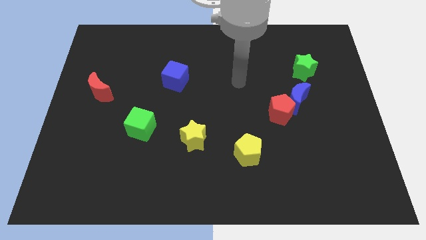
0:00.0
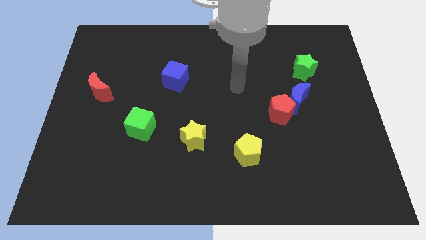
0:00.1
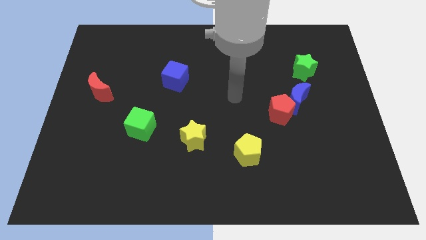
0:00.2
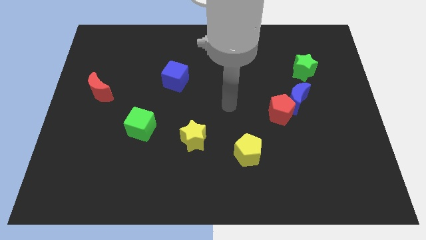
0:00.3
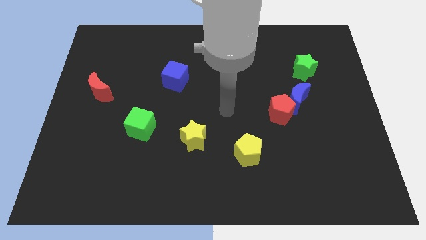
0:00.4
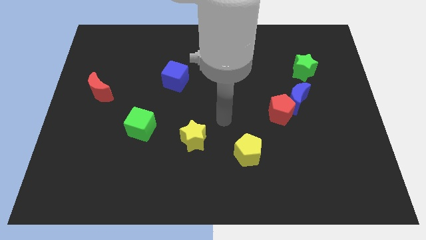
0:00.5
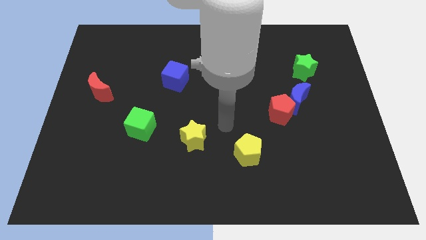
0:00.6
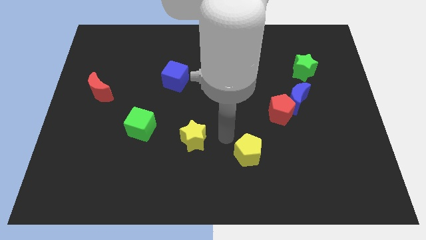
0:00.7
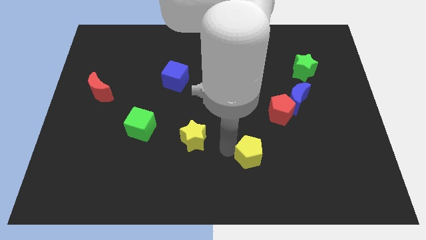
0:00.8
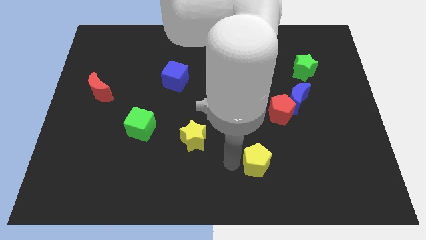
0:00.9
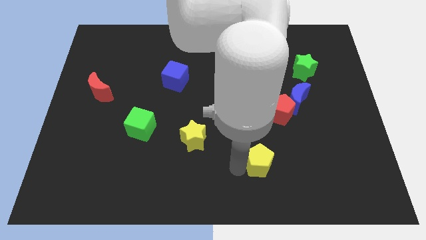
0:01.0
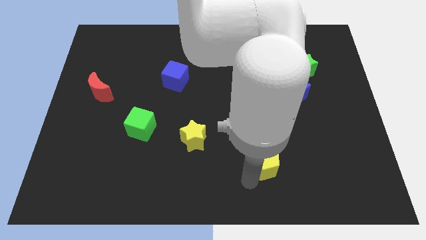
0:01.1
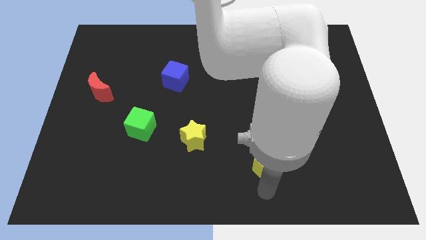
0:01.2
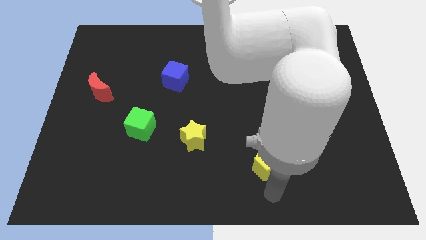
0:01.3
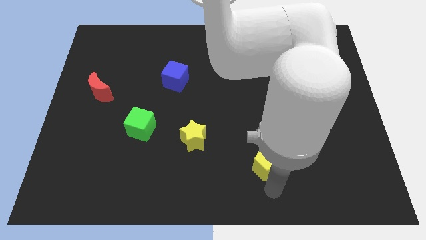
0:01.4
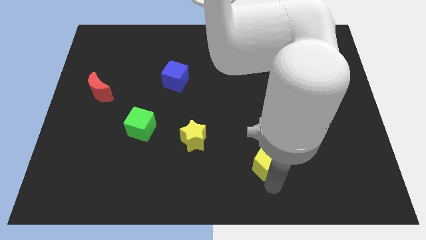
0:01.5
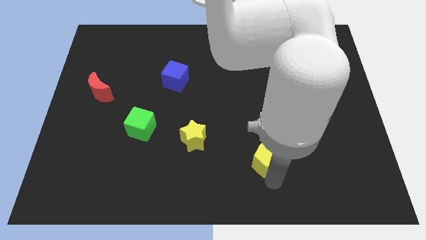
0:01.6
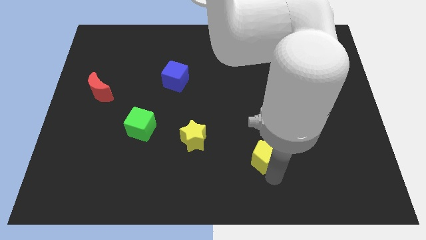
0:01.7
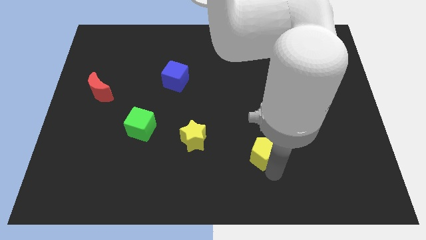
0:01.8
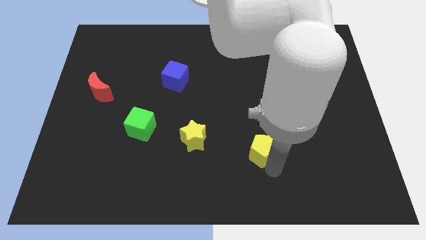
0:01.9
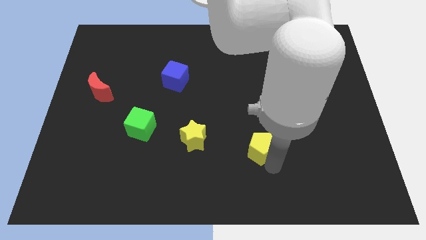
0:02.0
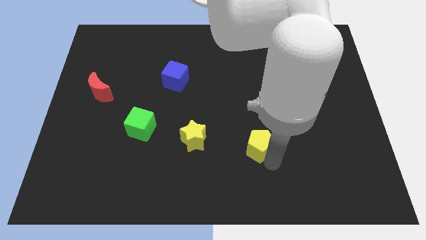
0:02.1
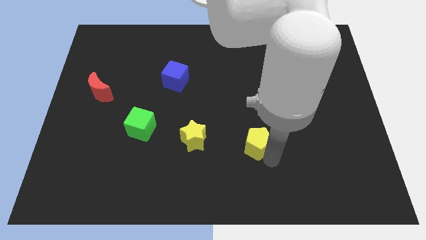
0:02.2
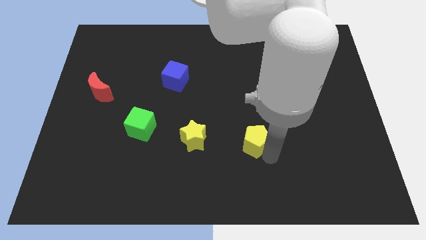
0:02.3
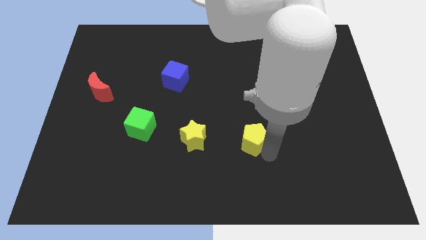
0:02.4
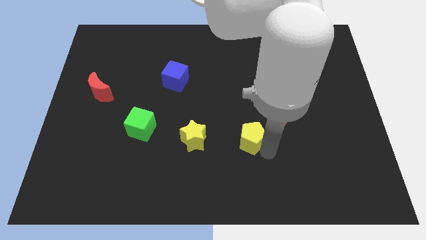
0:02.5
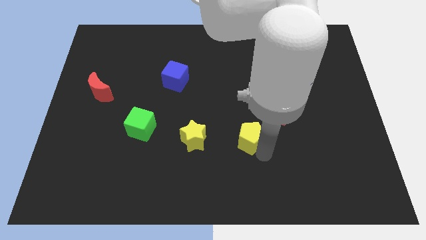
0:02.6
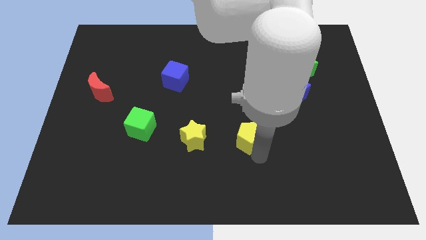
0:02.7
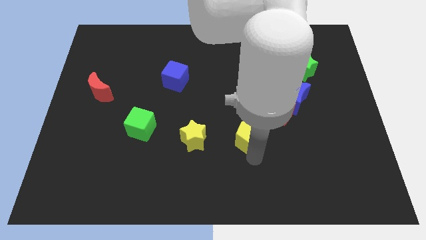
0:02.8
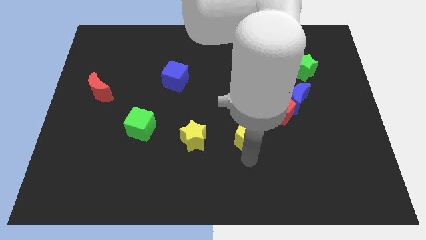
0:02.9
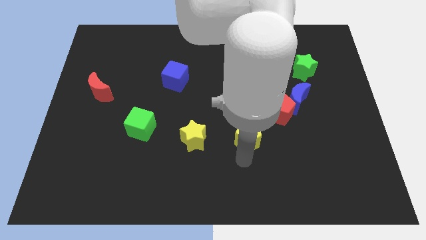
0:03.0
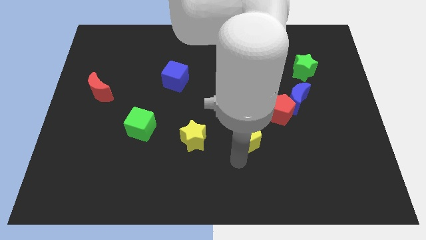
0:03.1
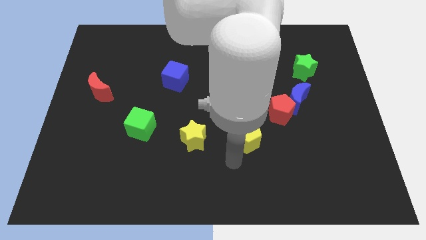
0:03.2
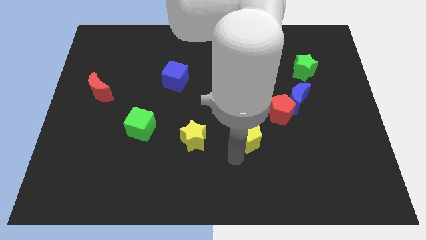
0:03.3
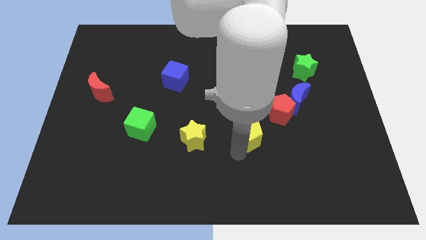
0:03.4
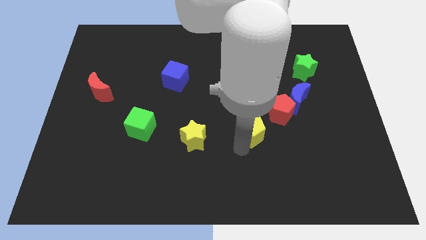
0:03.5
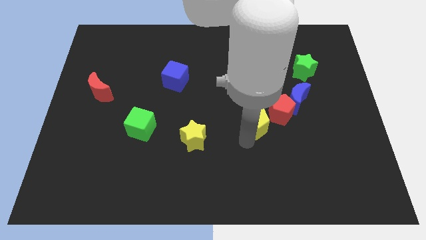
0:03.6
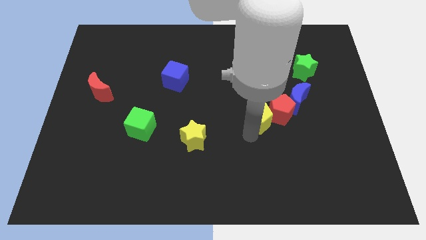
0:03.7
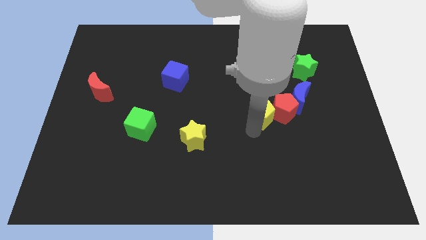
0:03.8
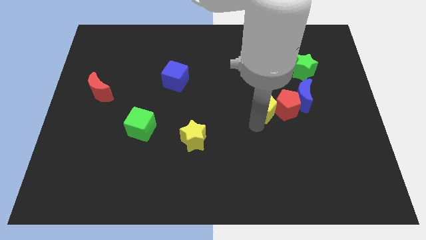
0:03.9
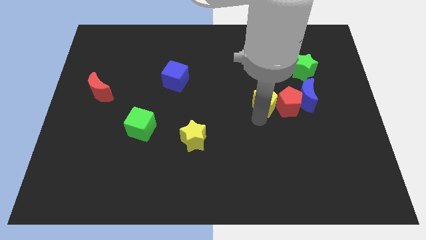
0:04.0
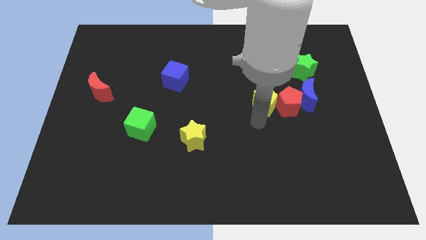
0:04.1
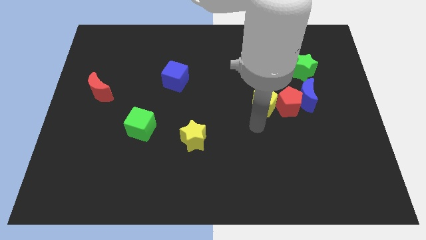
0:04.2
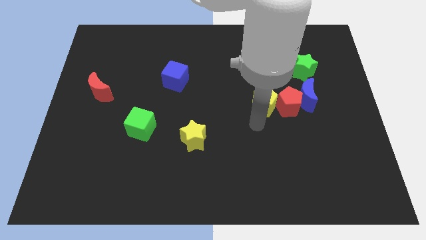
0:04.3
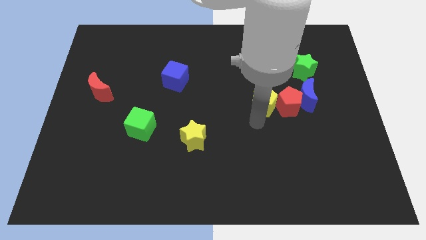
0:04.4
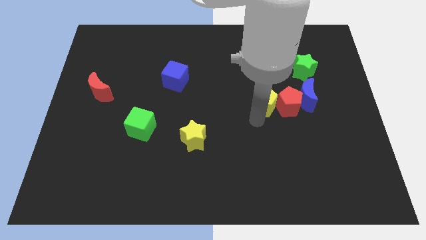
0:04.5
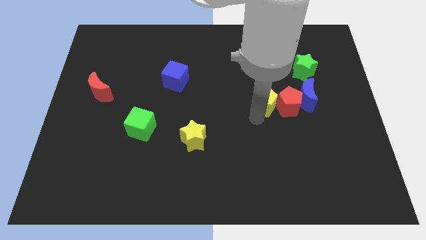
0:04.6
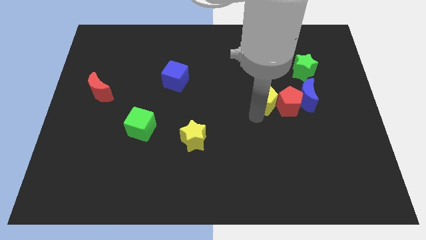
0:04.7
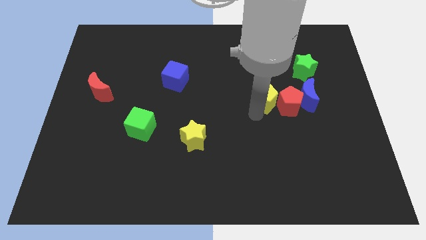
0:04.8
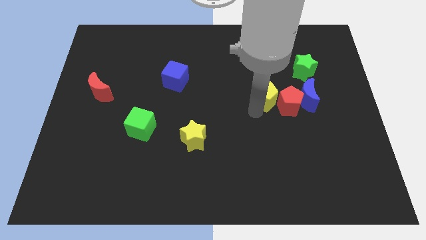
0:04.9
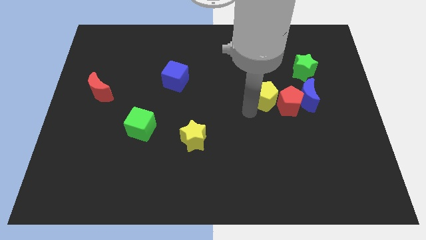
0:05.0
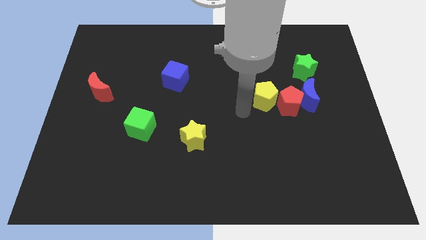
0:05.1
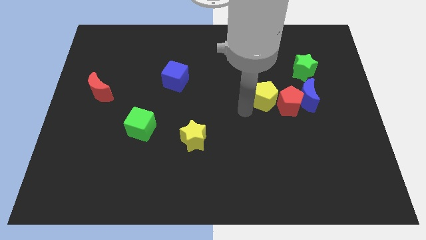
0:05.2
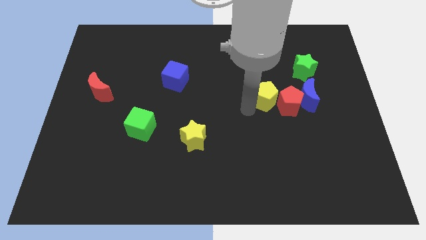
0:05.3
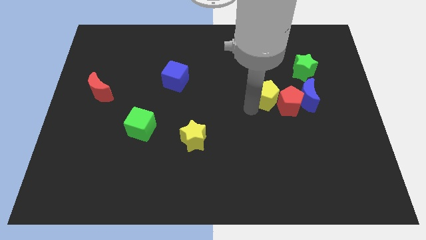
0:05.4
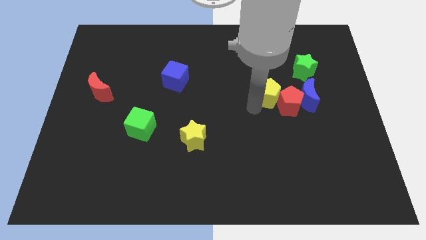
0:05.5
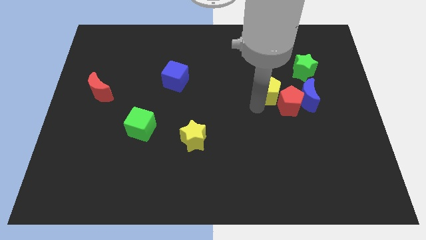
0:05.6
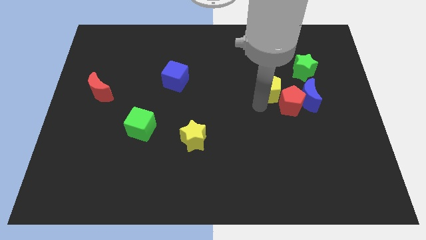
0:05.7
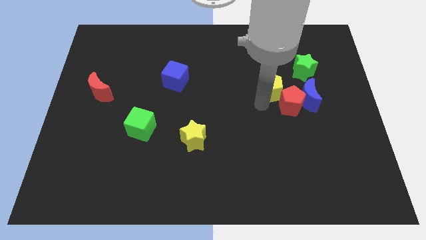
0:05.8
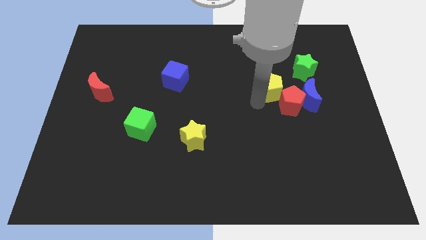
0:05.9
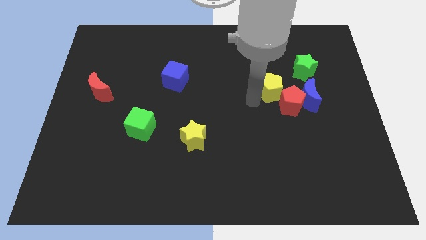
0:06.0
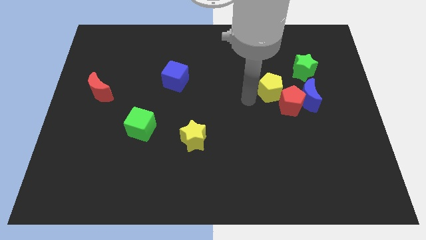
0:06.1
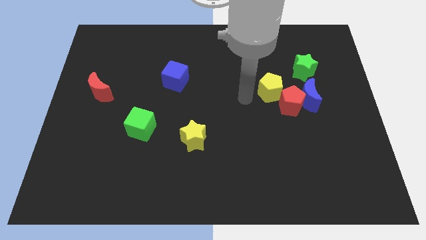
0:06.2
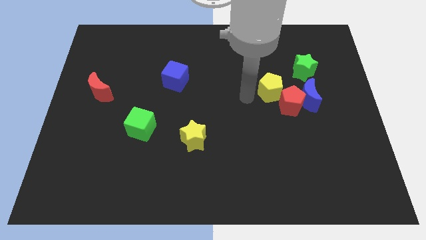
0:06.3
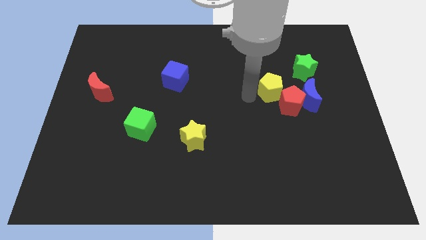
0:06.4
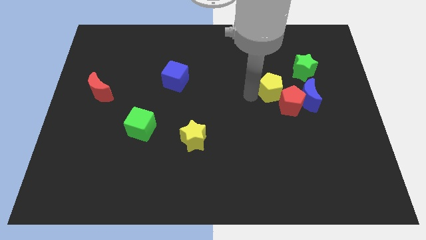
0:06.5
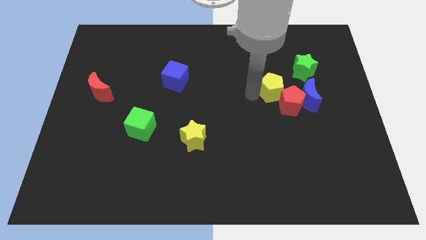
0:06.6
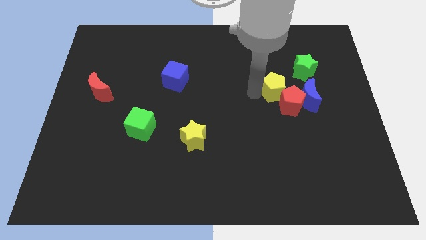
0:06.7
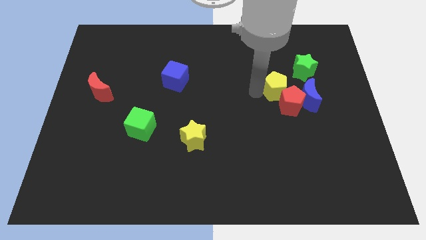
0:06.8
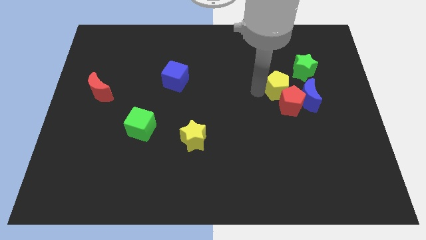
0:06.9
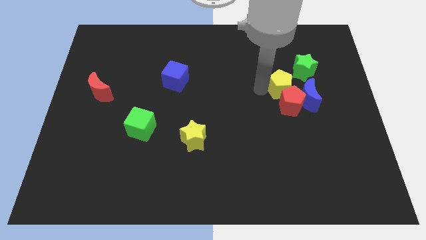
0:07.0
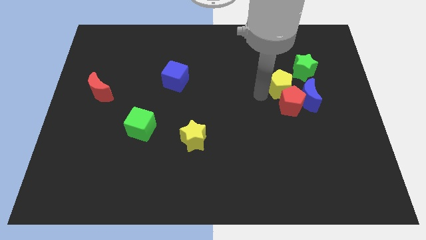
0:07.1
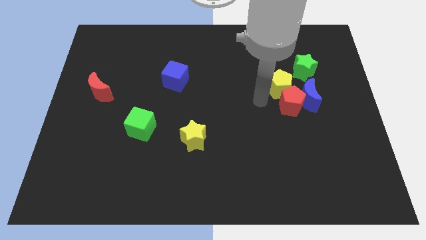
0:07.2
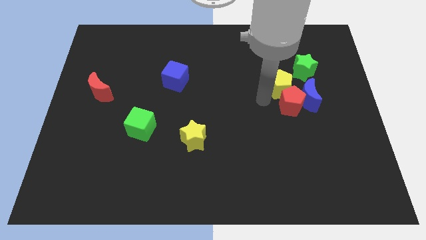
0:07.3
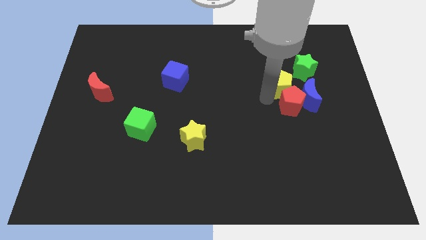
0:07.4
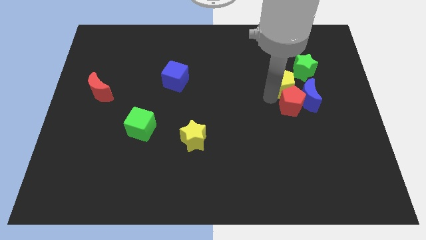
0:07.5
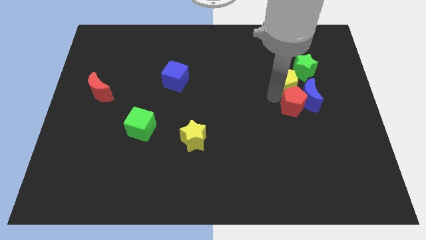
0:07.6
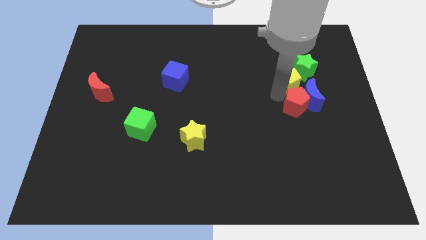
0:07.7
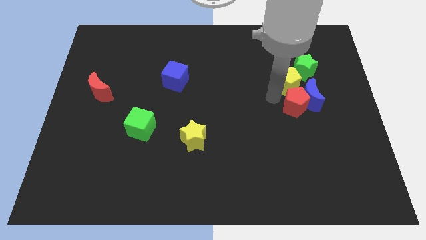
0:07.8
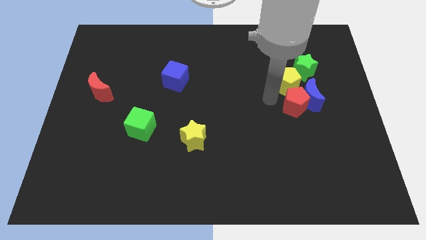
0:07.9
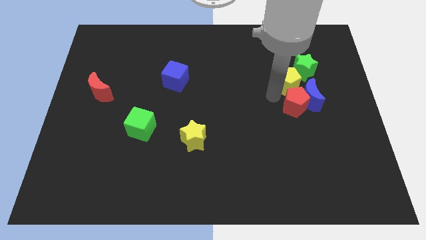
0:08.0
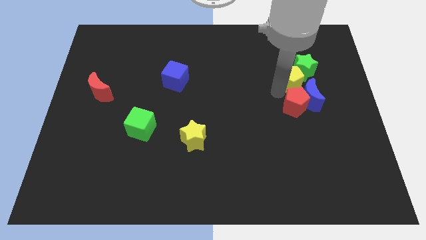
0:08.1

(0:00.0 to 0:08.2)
push the yellow pentagon close to the green star
